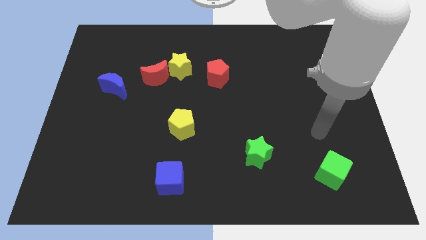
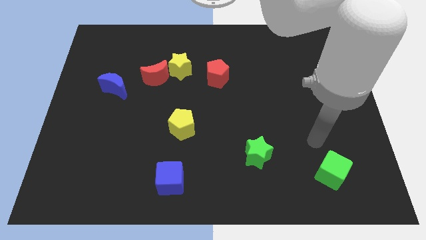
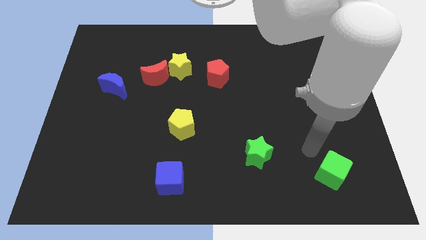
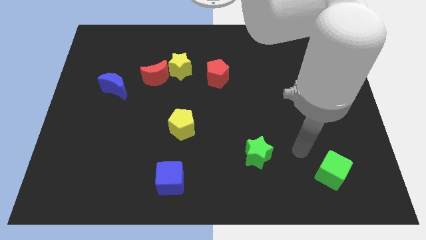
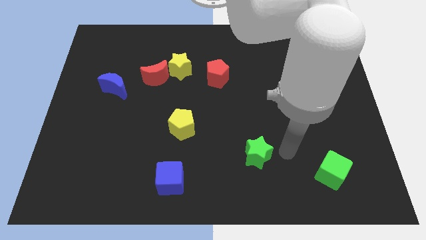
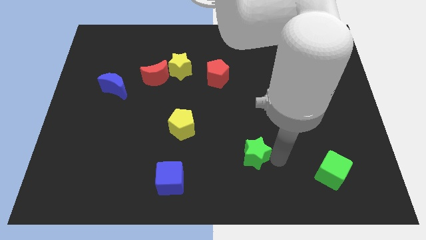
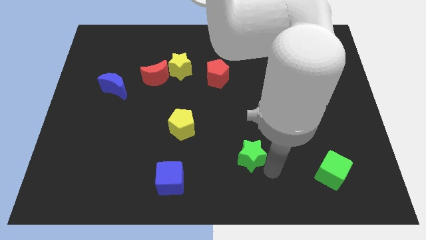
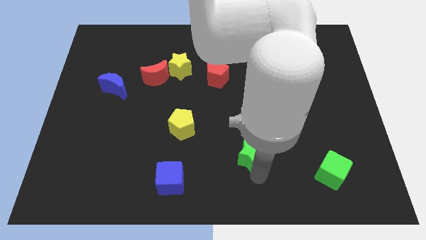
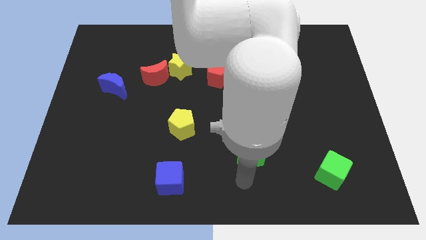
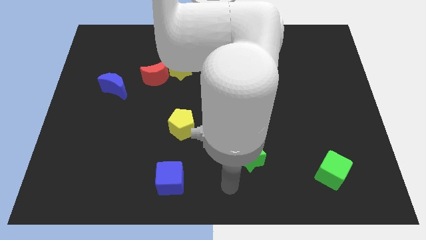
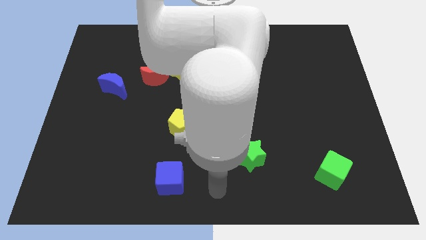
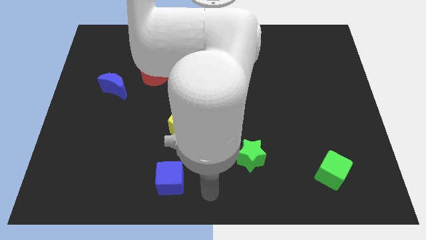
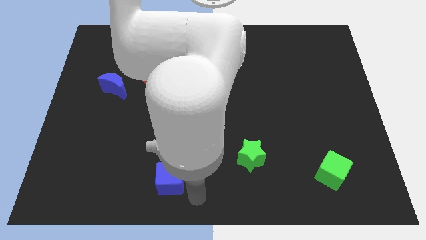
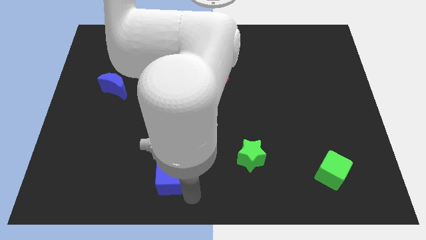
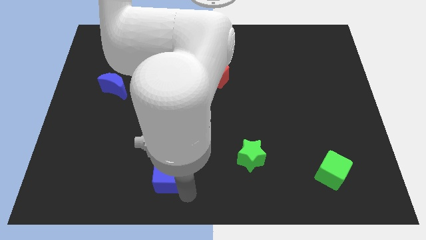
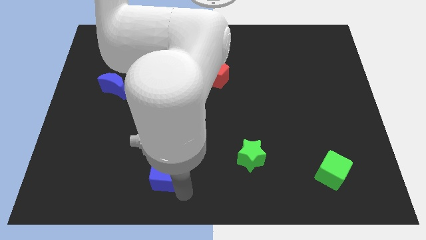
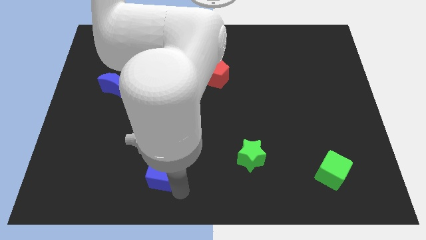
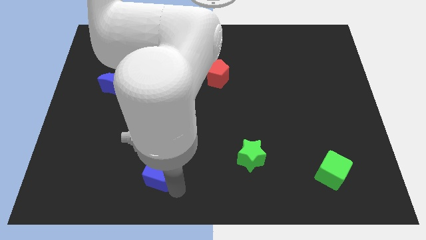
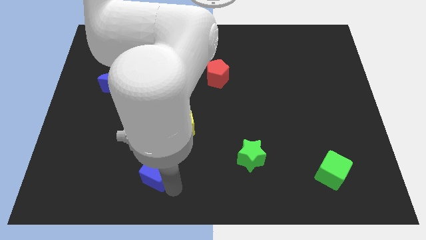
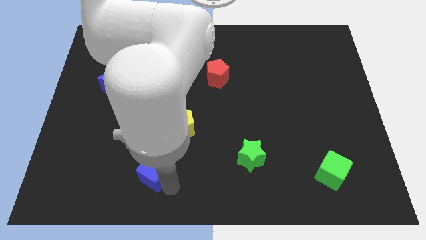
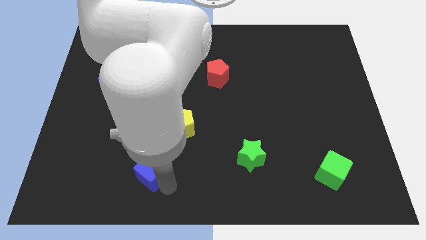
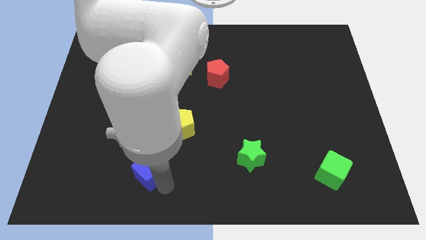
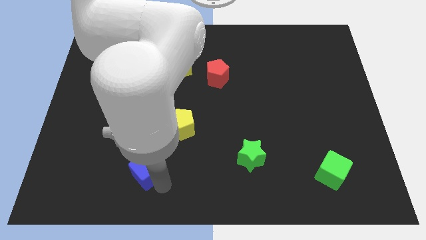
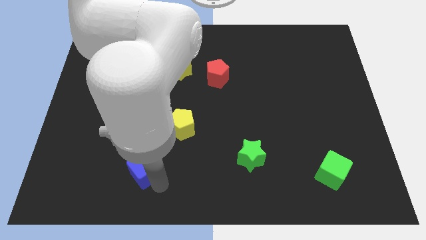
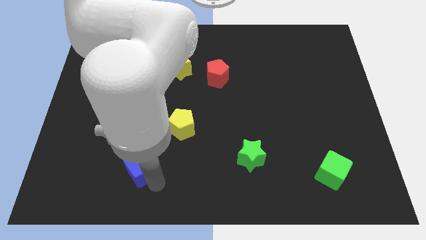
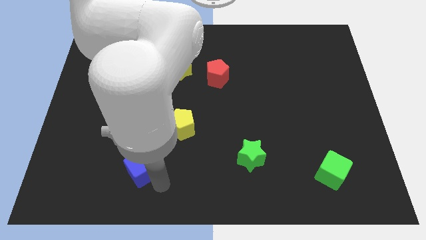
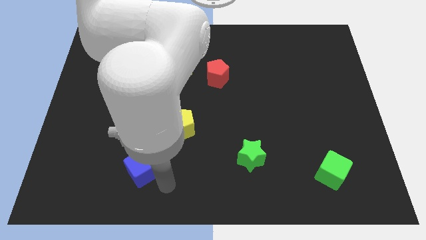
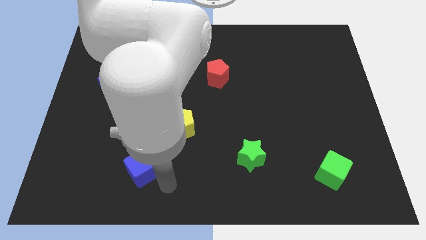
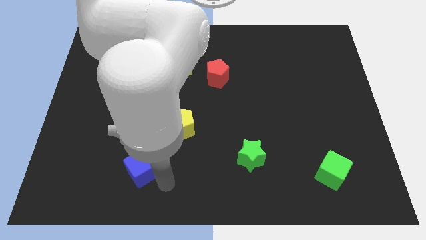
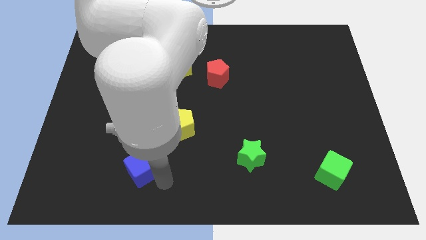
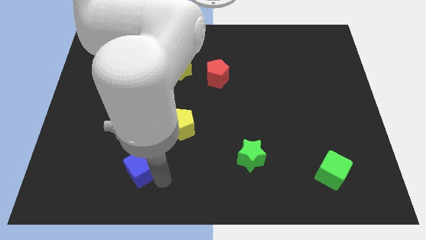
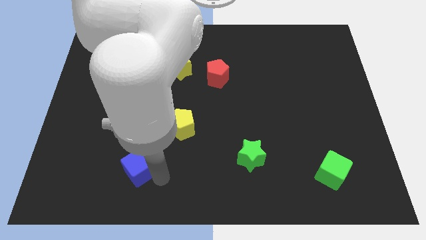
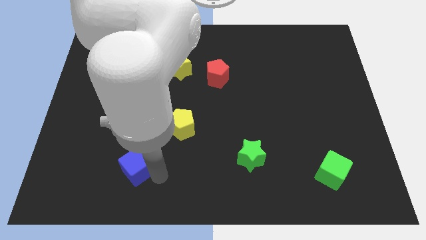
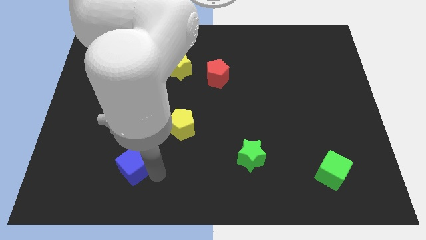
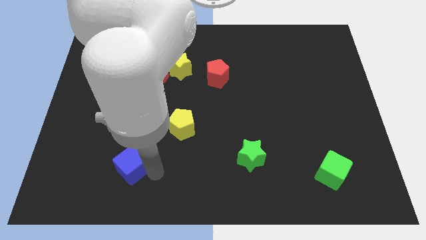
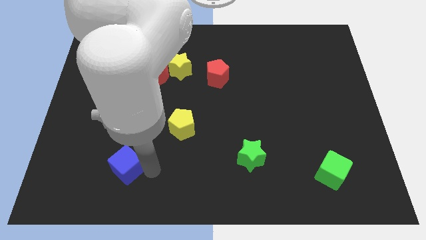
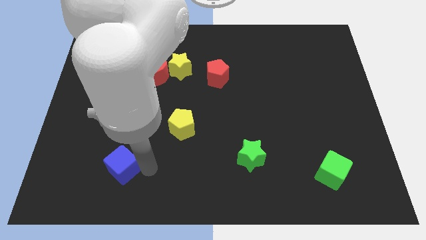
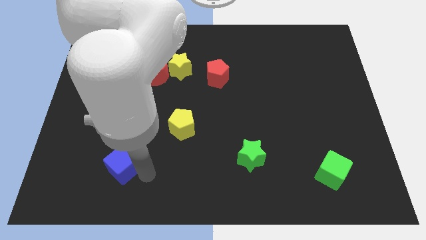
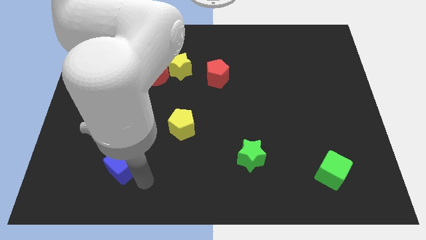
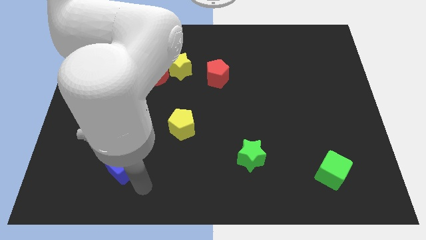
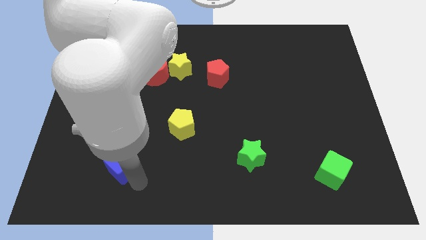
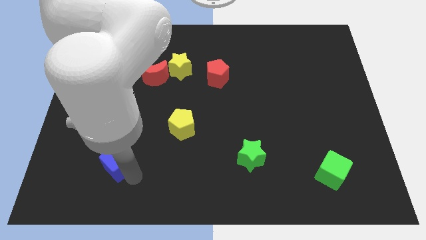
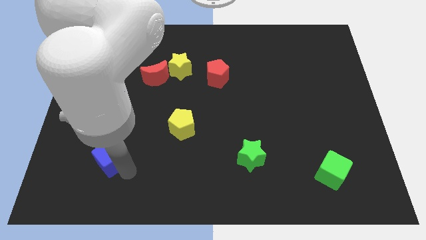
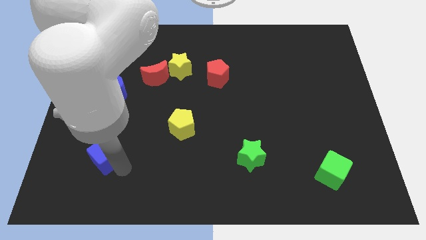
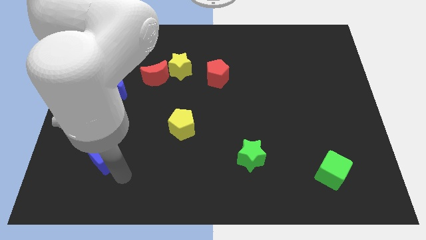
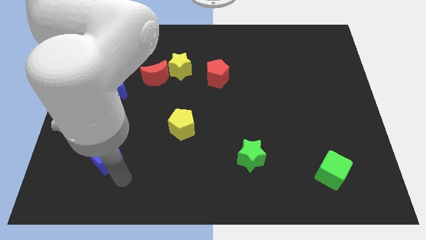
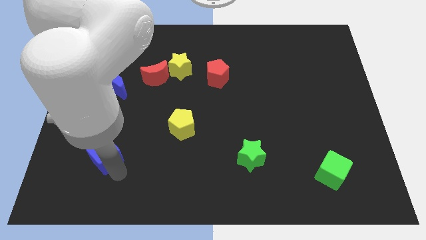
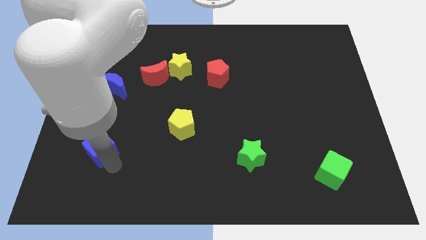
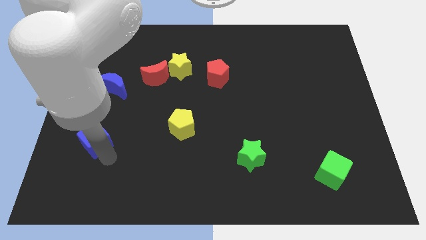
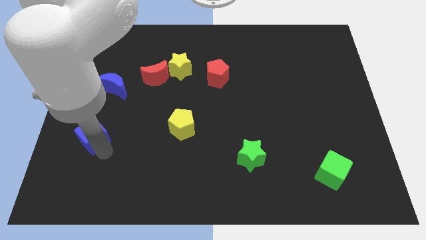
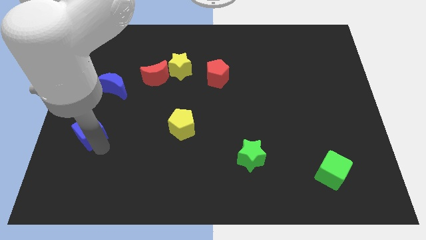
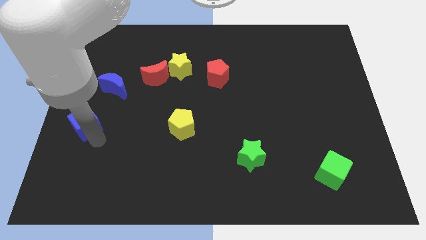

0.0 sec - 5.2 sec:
put the blue cube to the center left

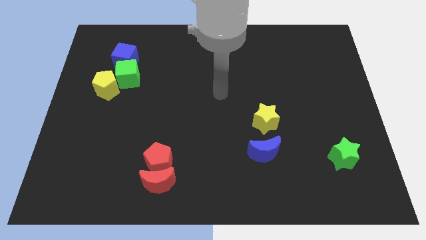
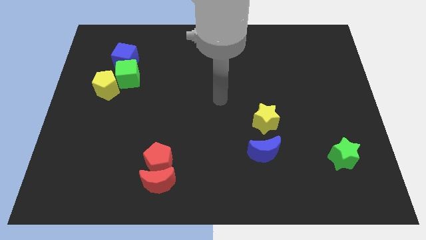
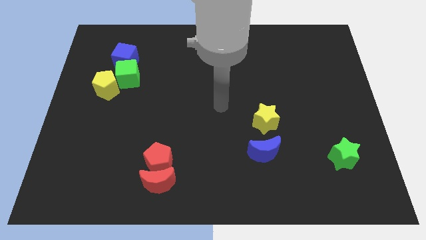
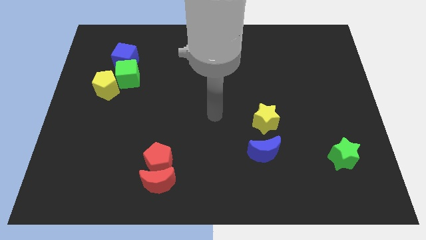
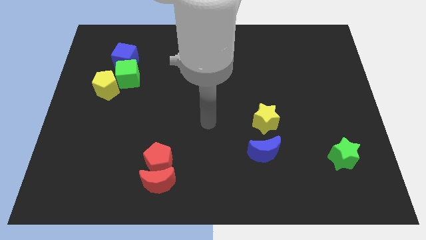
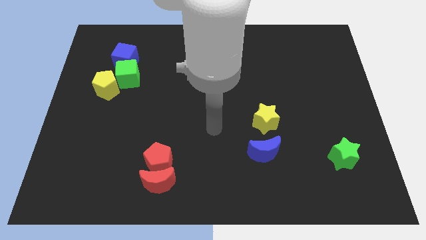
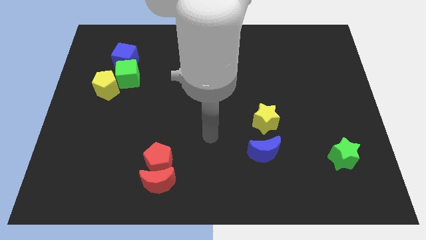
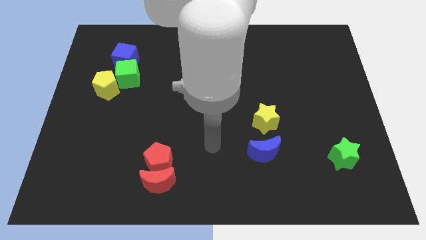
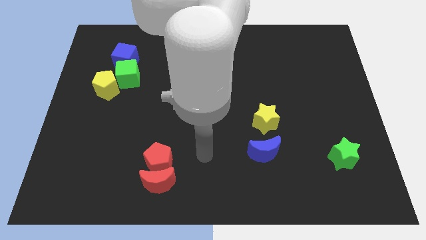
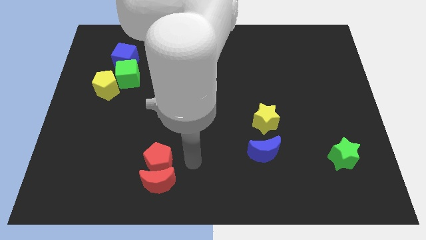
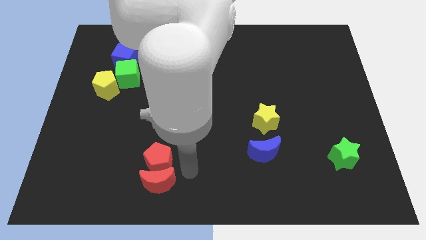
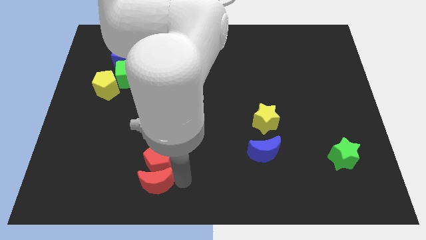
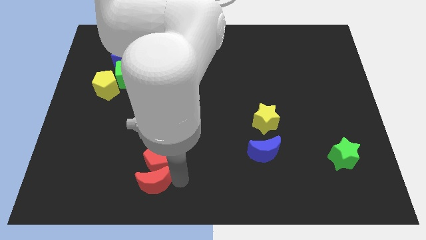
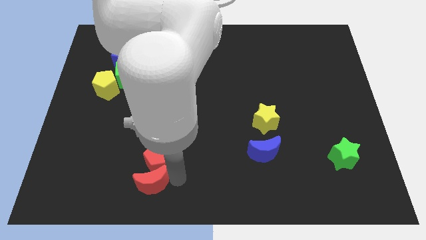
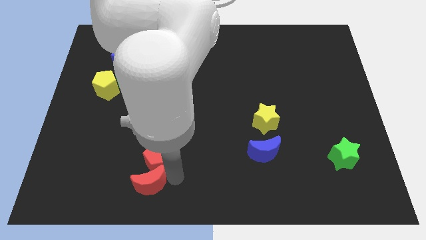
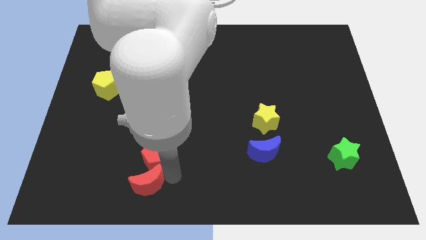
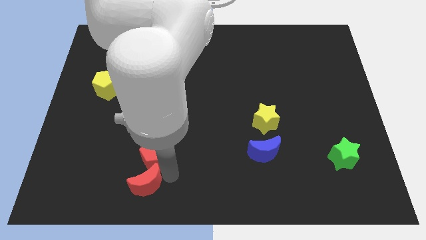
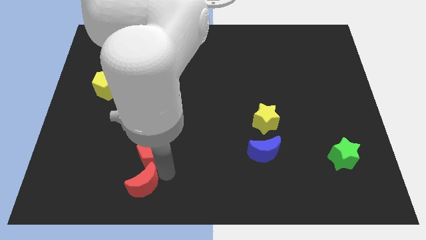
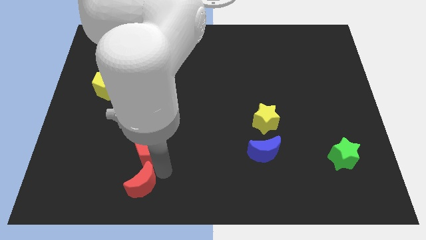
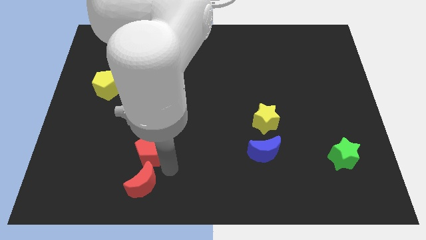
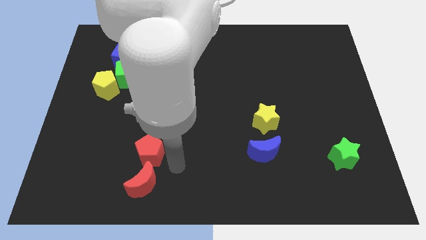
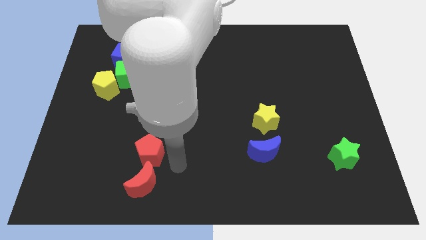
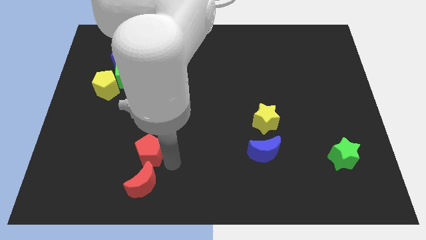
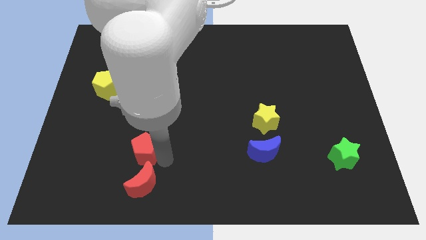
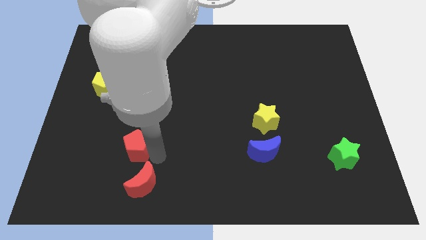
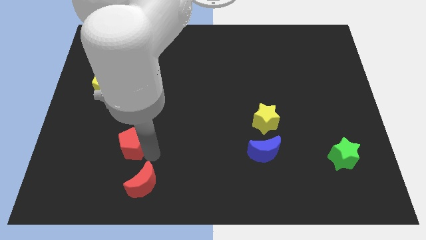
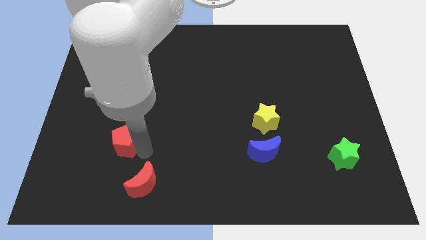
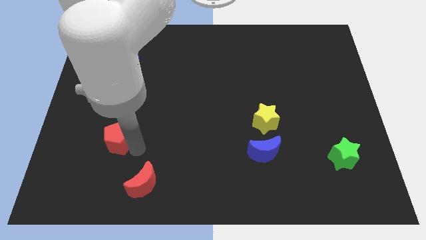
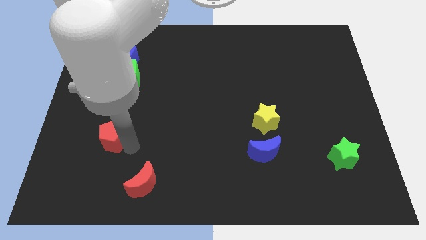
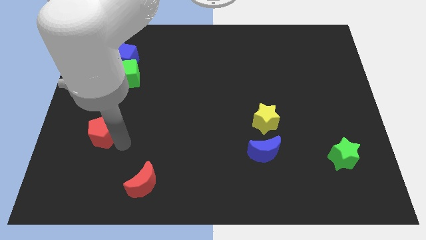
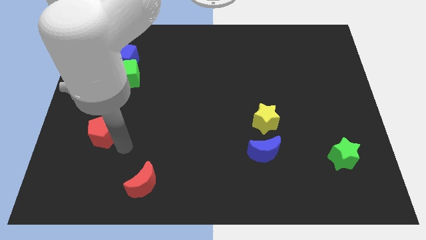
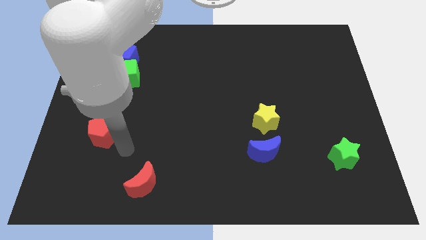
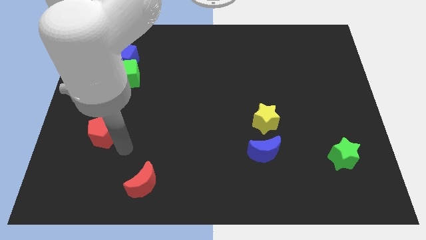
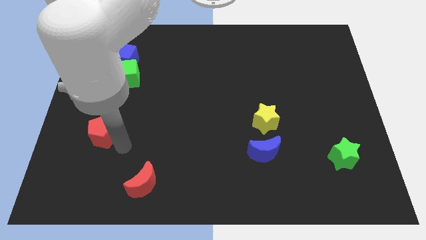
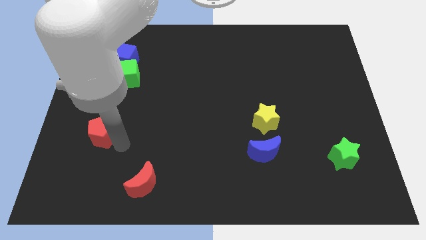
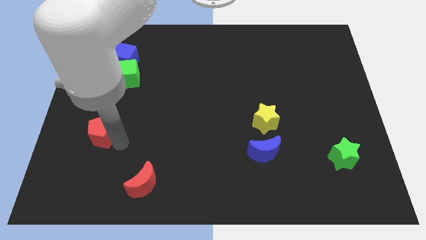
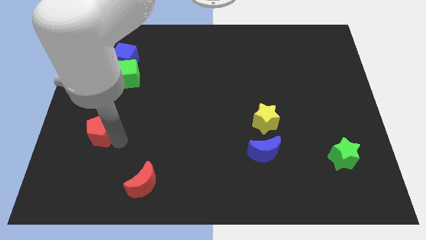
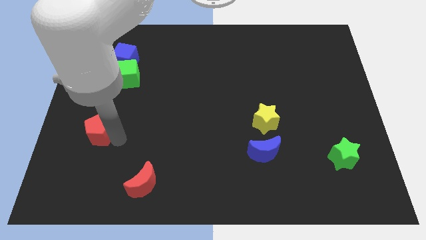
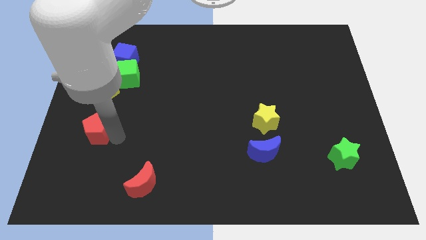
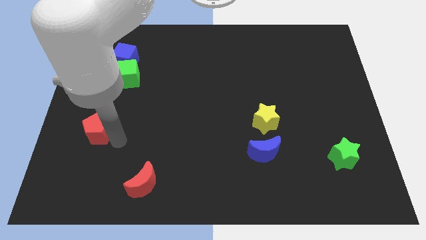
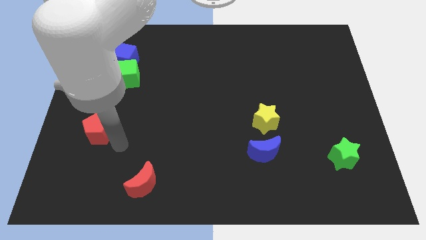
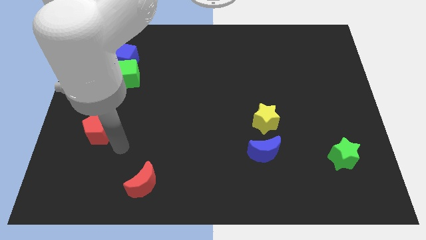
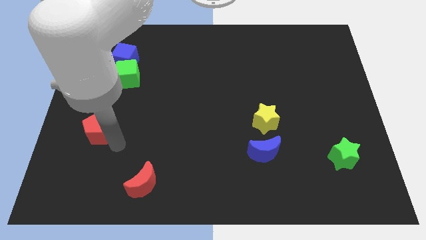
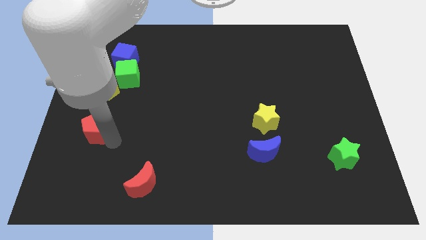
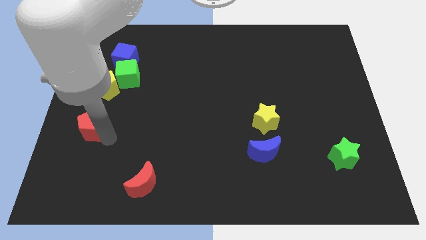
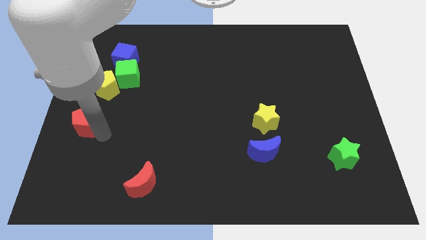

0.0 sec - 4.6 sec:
slide the red pentagon to the left side of the board
